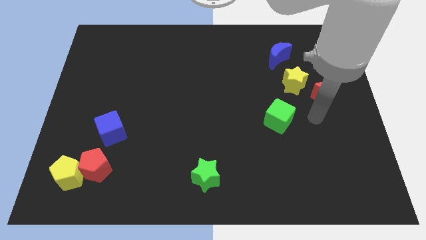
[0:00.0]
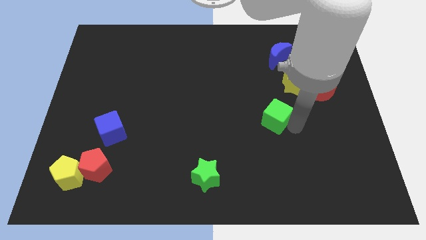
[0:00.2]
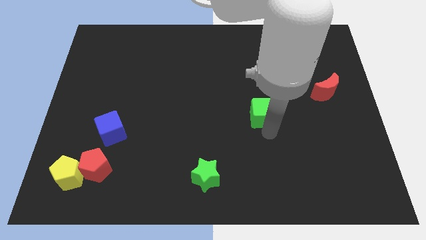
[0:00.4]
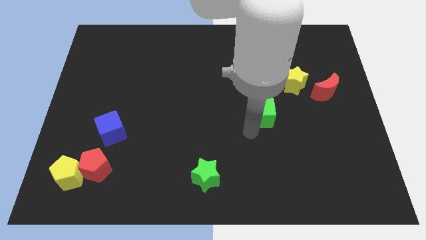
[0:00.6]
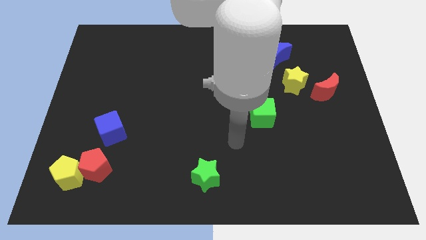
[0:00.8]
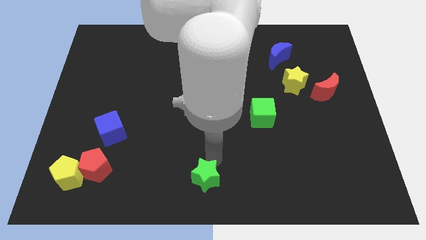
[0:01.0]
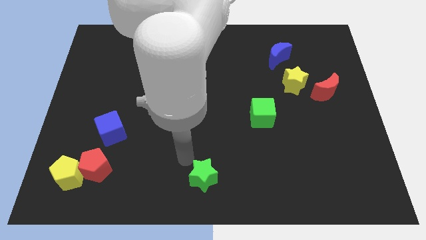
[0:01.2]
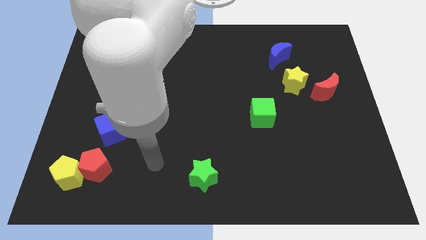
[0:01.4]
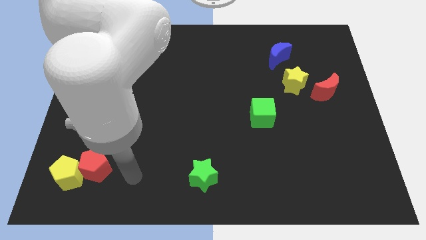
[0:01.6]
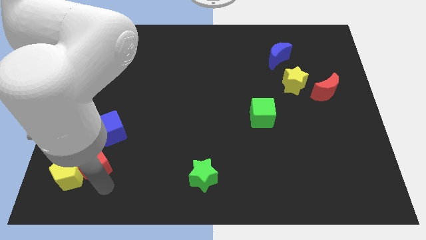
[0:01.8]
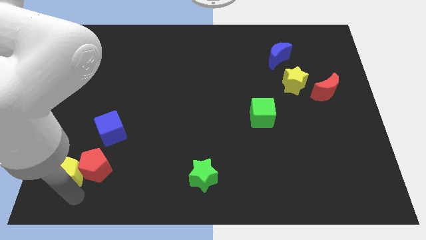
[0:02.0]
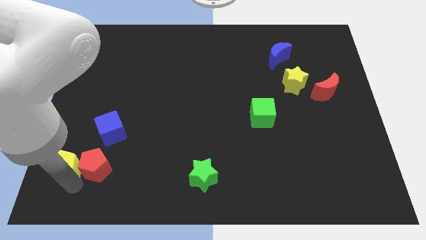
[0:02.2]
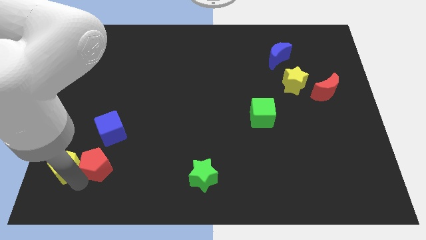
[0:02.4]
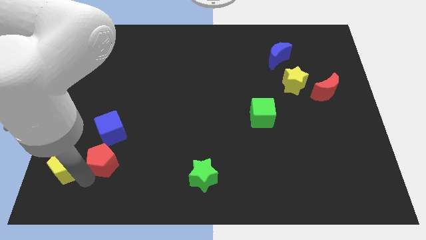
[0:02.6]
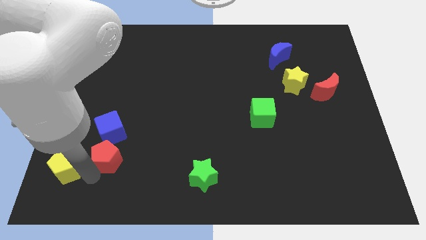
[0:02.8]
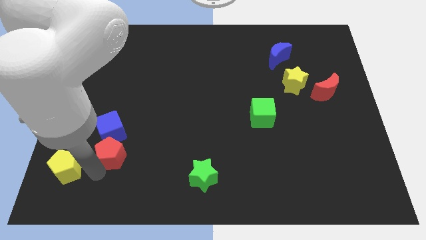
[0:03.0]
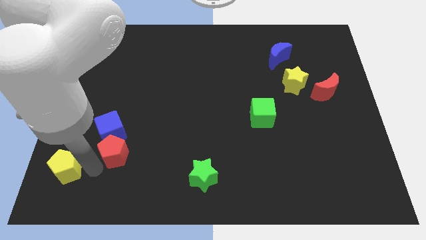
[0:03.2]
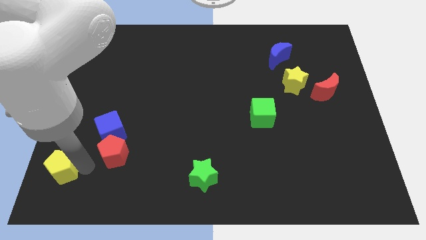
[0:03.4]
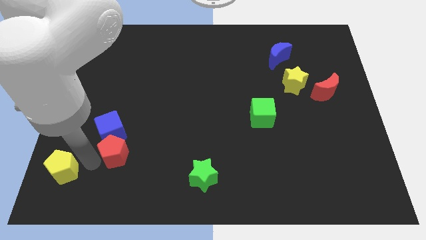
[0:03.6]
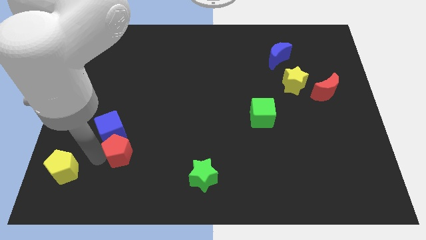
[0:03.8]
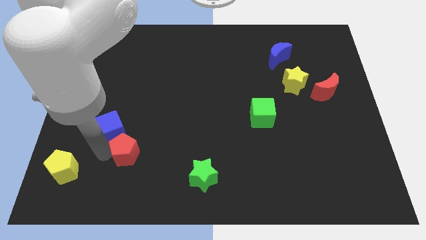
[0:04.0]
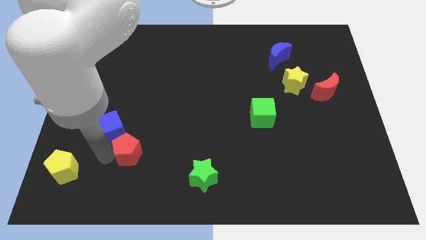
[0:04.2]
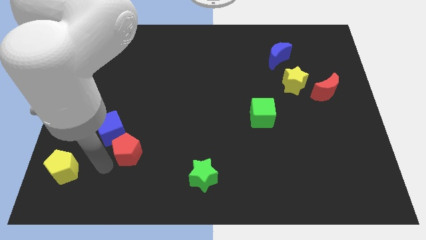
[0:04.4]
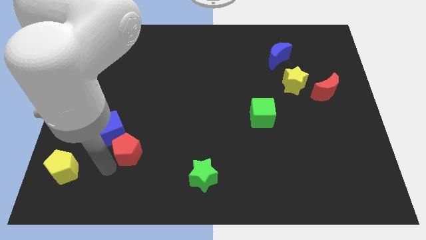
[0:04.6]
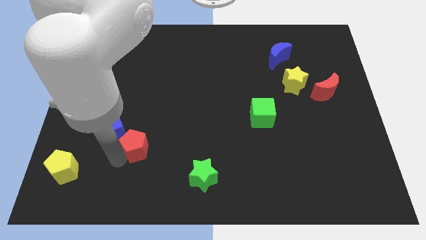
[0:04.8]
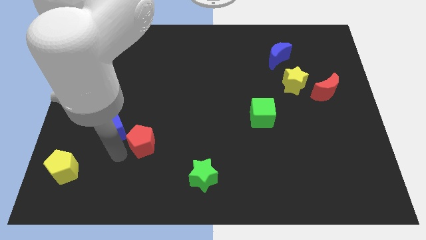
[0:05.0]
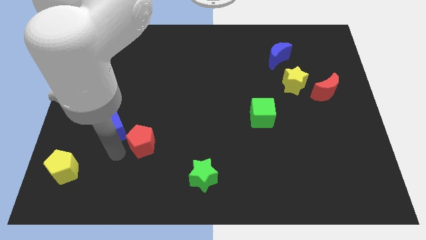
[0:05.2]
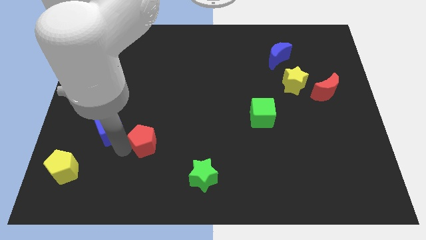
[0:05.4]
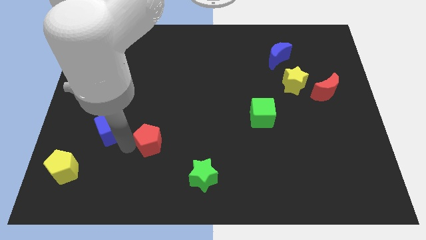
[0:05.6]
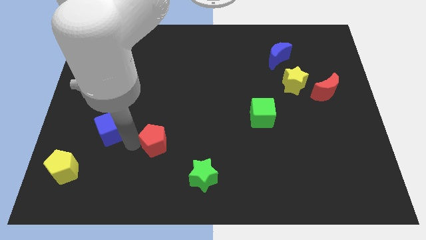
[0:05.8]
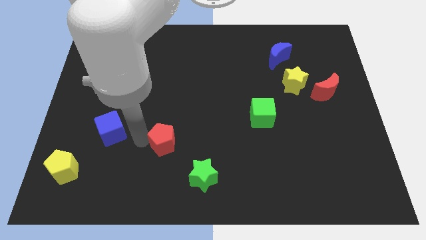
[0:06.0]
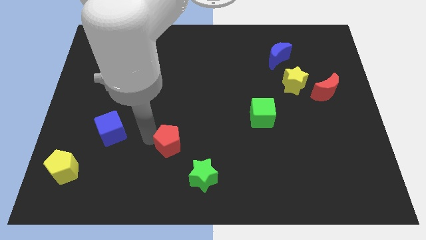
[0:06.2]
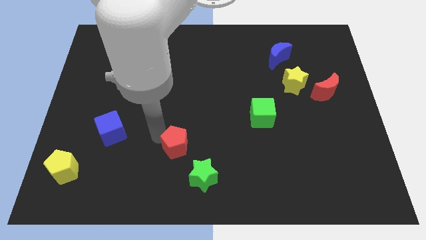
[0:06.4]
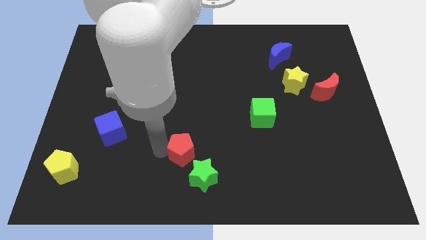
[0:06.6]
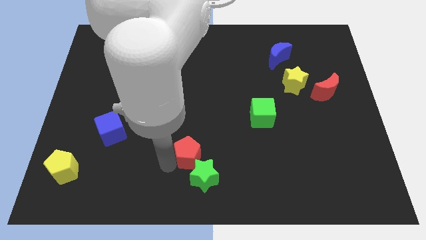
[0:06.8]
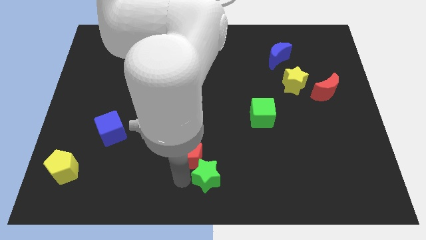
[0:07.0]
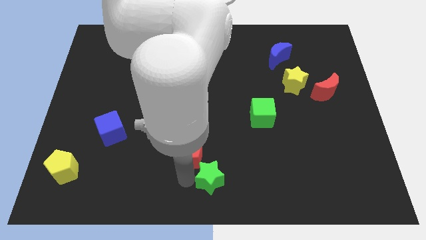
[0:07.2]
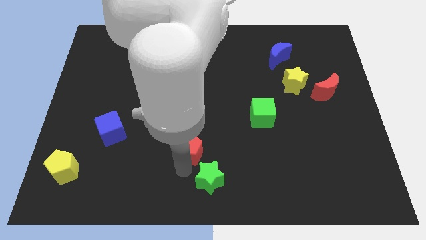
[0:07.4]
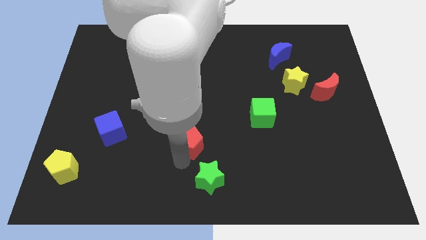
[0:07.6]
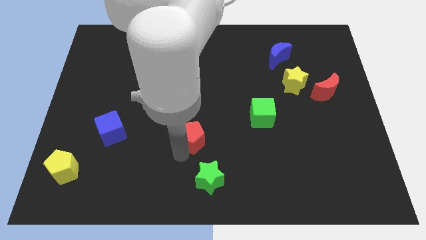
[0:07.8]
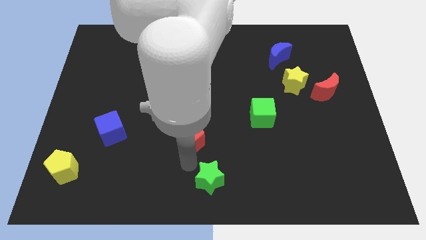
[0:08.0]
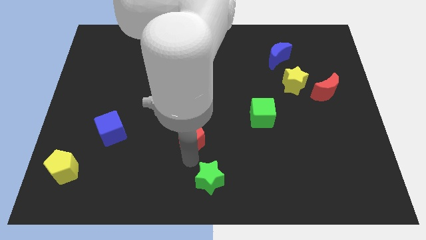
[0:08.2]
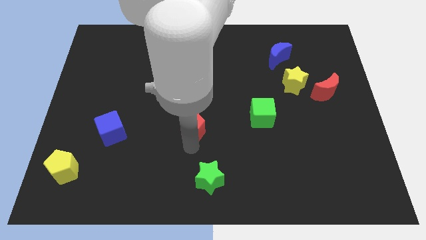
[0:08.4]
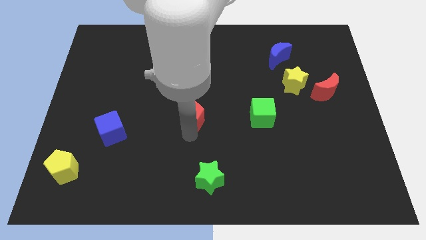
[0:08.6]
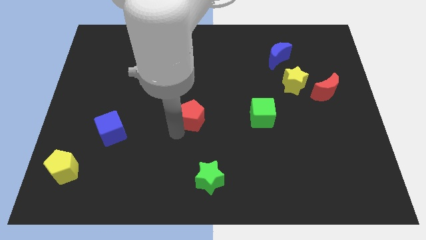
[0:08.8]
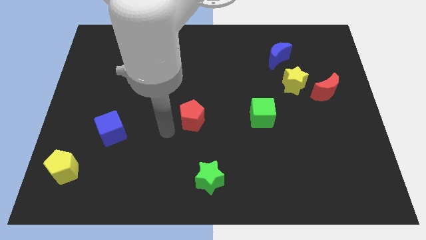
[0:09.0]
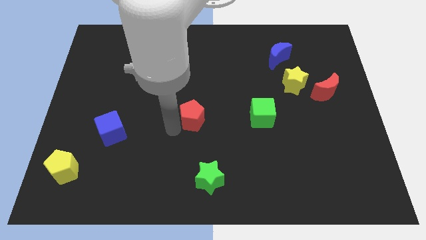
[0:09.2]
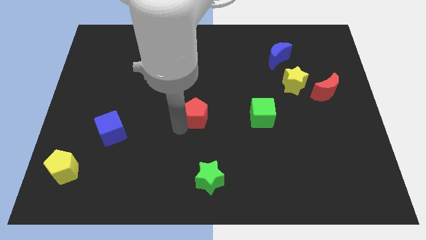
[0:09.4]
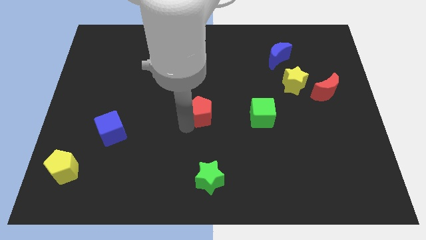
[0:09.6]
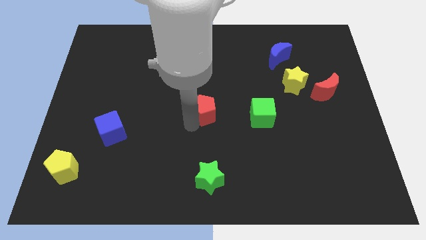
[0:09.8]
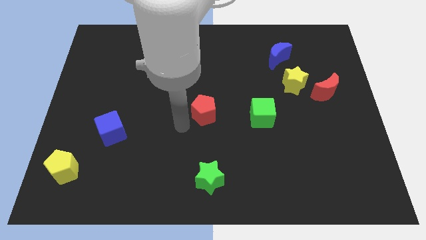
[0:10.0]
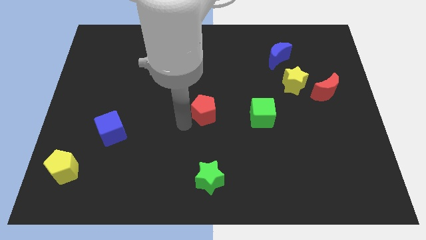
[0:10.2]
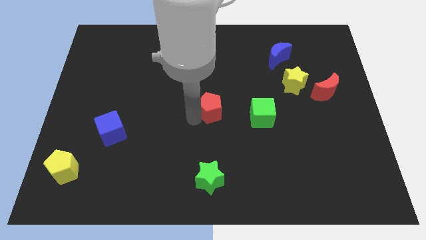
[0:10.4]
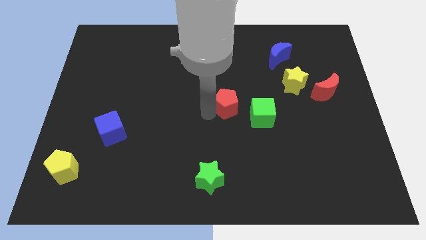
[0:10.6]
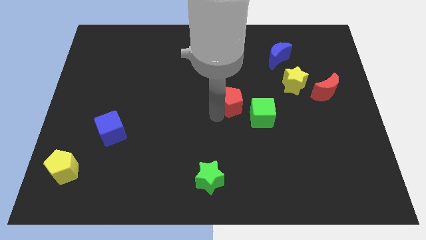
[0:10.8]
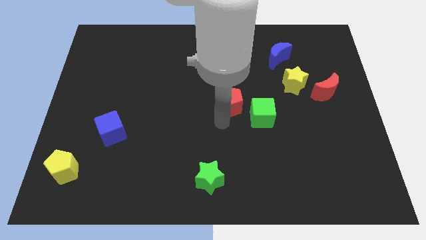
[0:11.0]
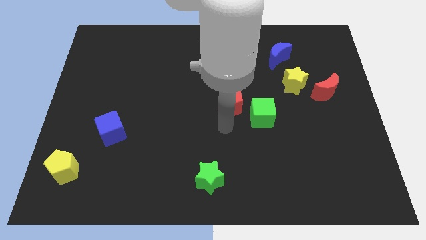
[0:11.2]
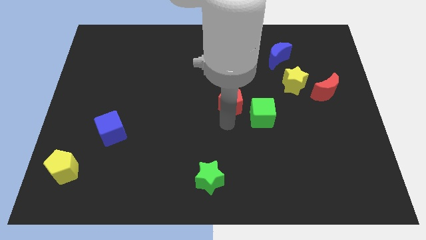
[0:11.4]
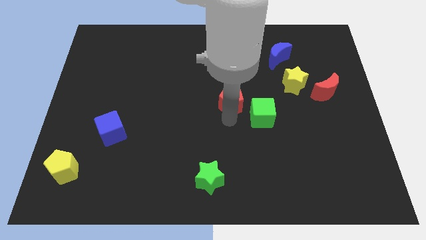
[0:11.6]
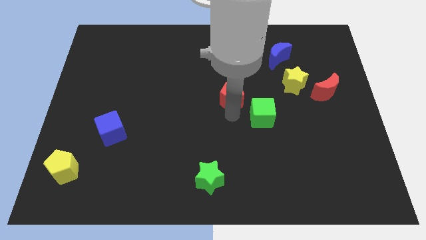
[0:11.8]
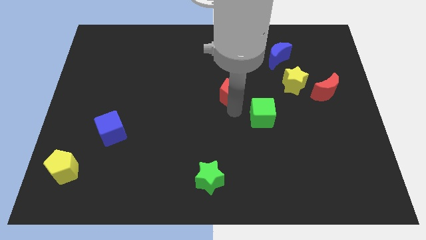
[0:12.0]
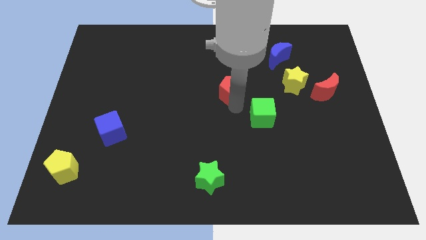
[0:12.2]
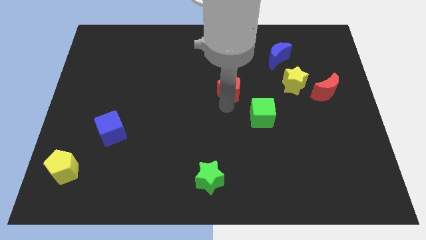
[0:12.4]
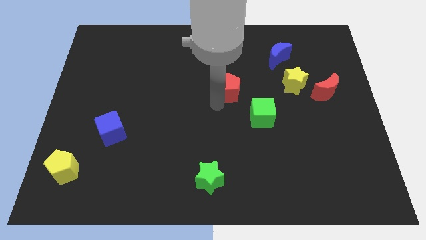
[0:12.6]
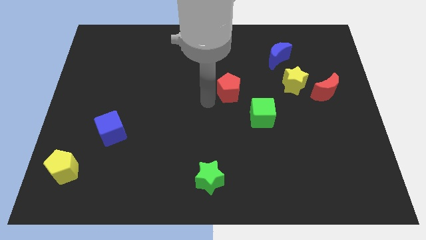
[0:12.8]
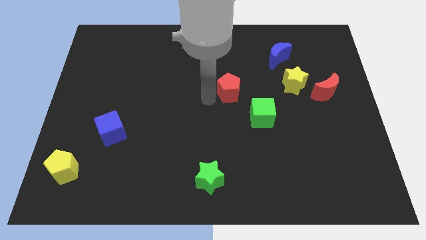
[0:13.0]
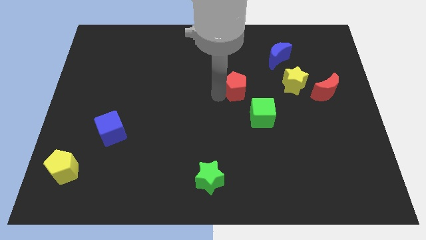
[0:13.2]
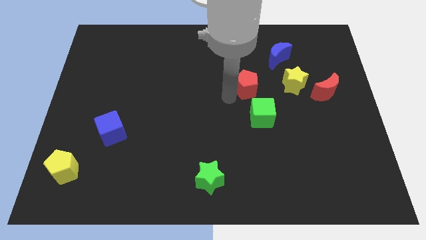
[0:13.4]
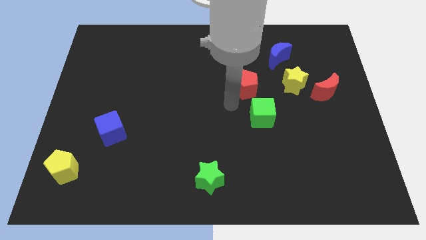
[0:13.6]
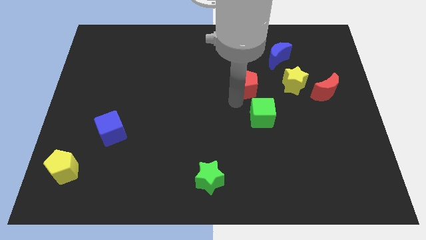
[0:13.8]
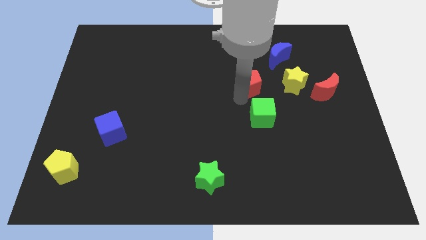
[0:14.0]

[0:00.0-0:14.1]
slide the red pentagon to the bottom left side of the blue moon

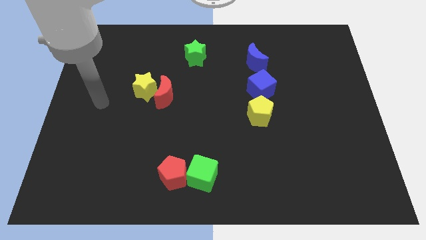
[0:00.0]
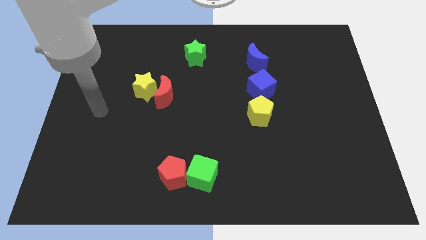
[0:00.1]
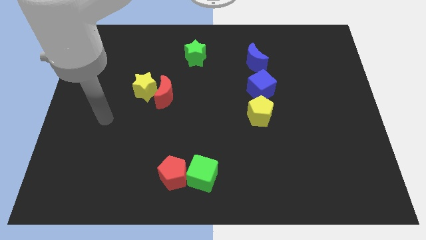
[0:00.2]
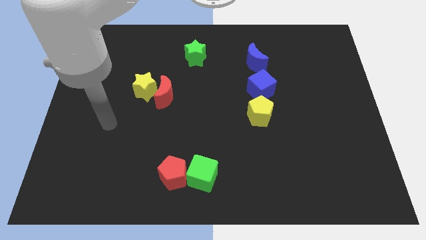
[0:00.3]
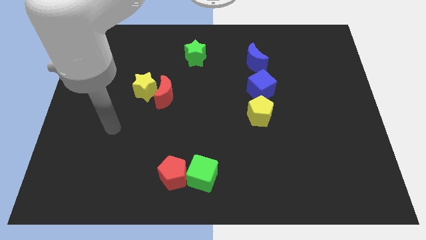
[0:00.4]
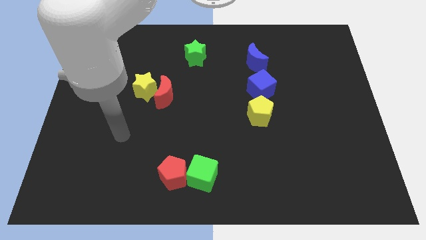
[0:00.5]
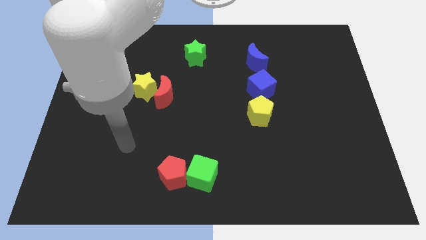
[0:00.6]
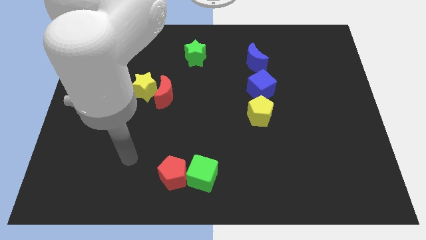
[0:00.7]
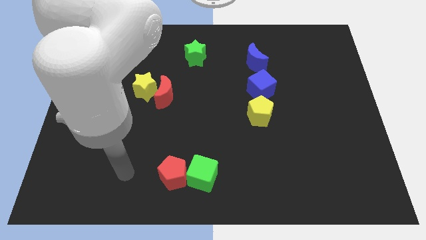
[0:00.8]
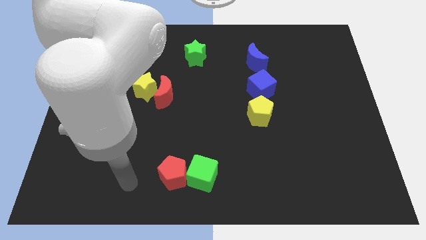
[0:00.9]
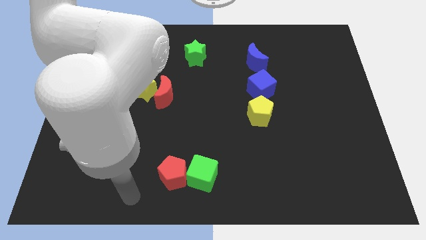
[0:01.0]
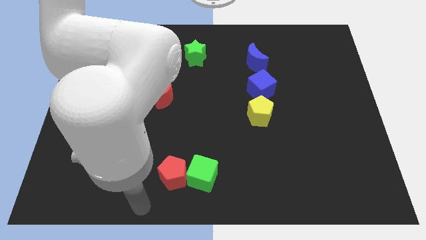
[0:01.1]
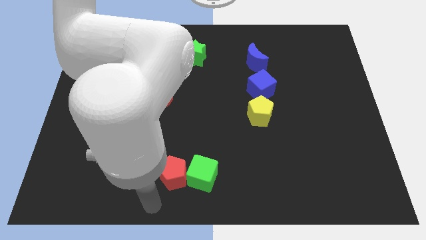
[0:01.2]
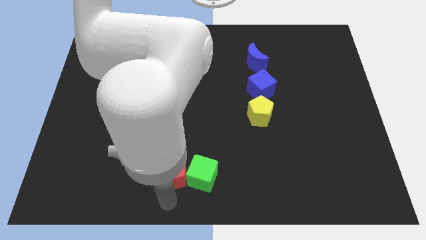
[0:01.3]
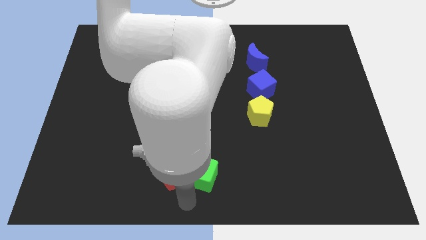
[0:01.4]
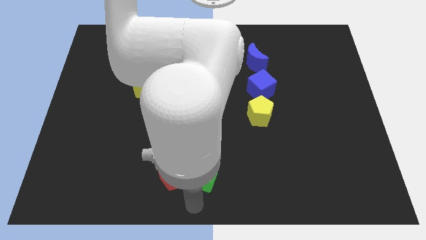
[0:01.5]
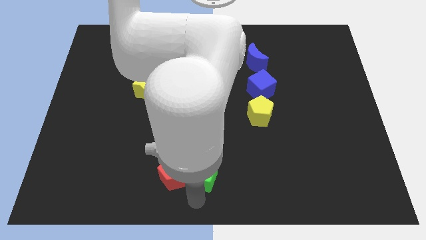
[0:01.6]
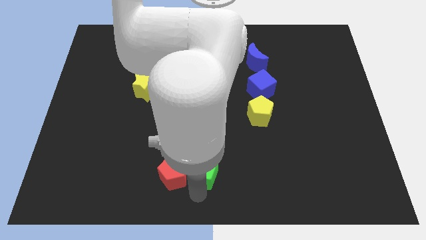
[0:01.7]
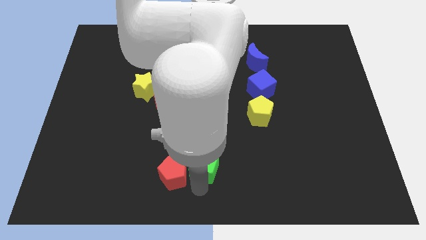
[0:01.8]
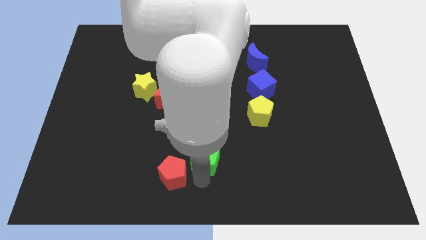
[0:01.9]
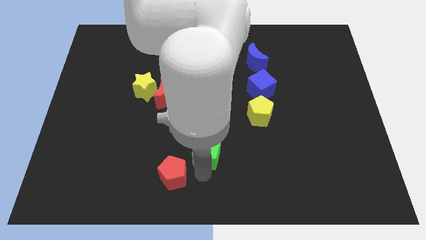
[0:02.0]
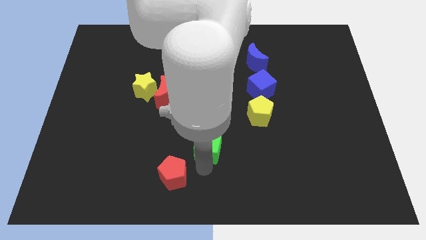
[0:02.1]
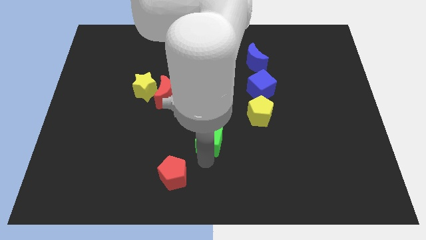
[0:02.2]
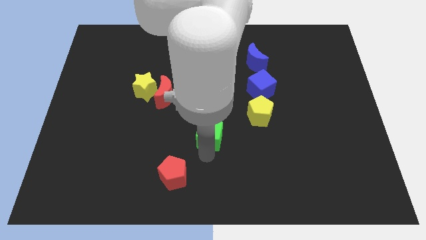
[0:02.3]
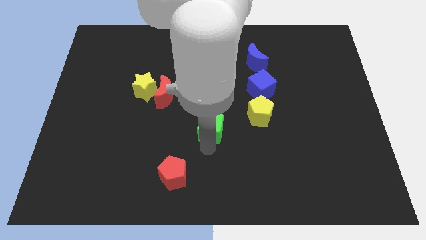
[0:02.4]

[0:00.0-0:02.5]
slide the green cube left of the yellow pentagon
